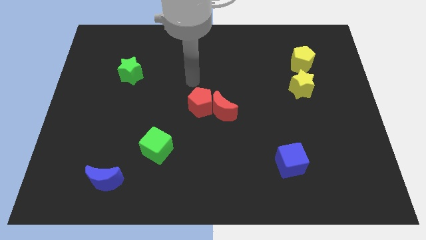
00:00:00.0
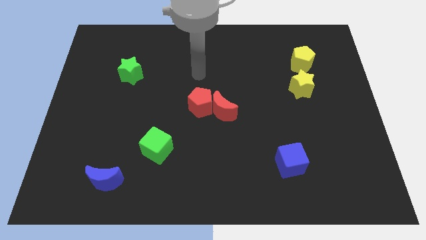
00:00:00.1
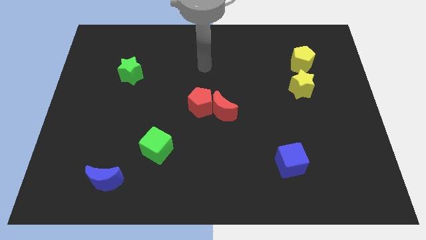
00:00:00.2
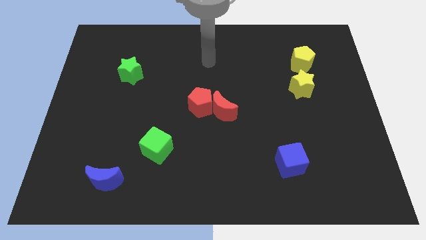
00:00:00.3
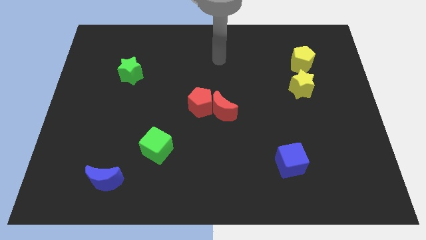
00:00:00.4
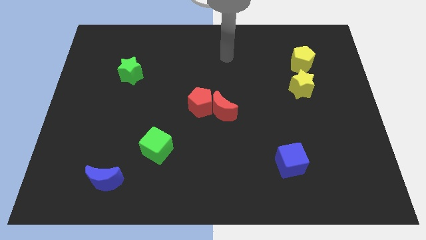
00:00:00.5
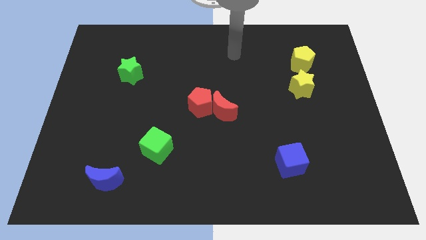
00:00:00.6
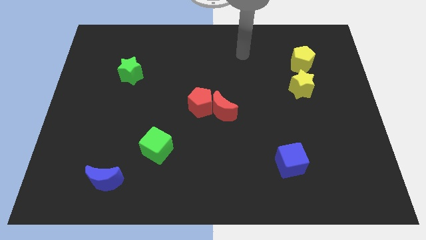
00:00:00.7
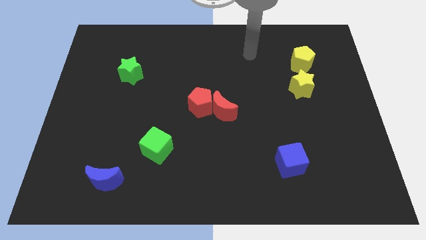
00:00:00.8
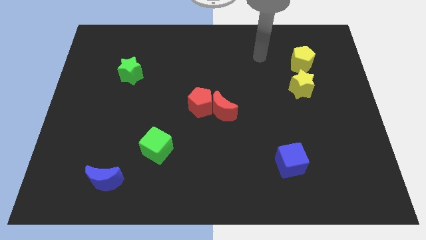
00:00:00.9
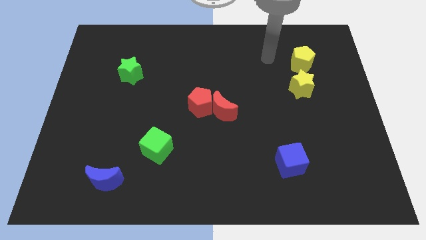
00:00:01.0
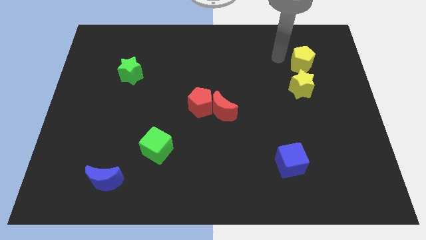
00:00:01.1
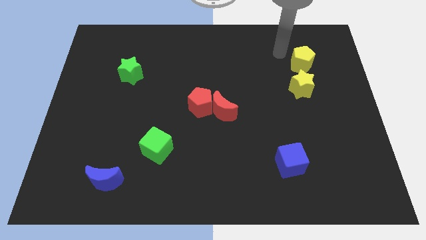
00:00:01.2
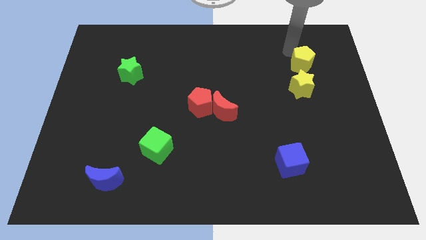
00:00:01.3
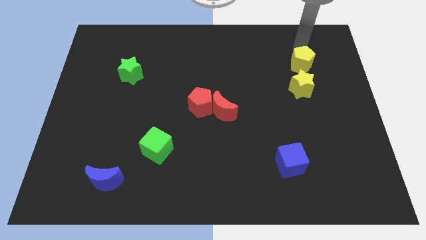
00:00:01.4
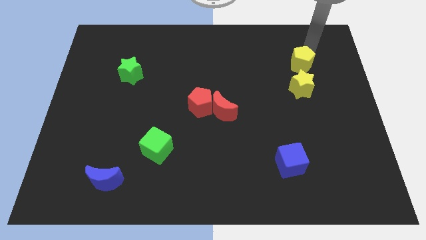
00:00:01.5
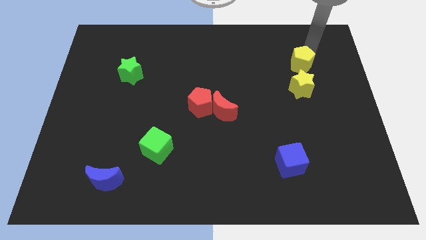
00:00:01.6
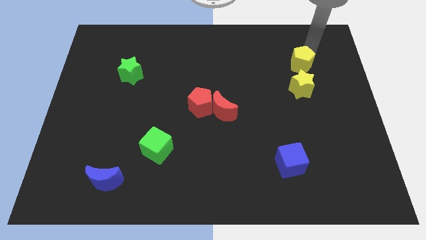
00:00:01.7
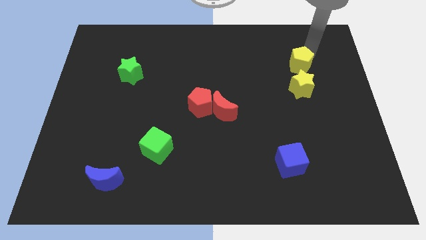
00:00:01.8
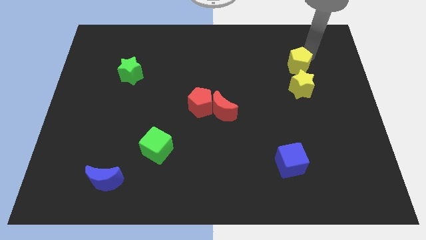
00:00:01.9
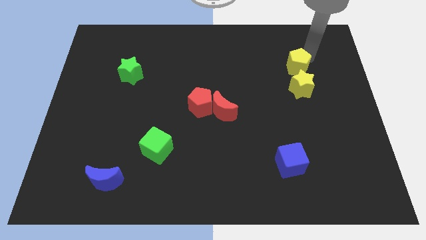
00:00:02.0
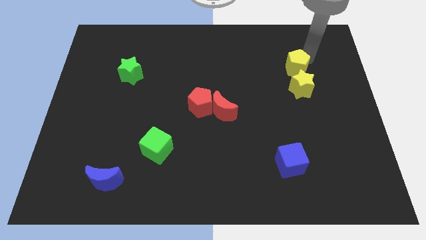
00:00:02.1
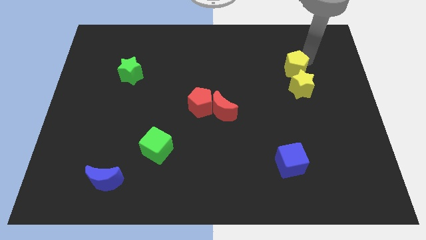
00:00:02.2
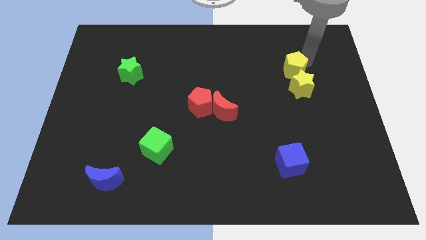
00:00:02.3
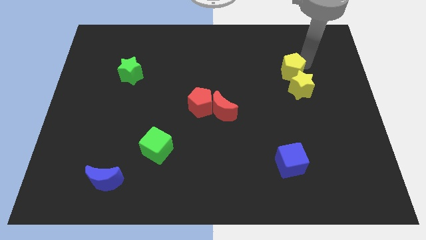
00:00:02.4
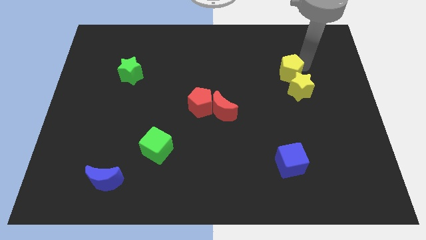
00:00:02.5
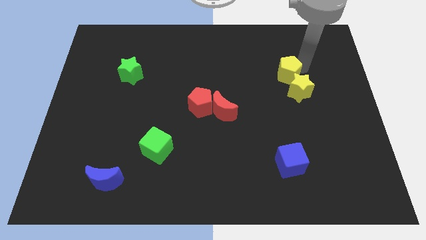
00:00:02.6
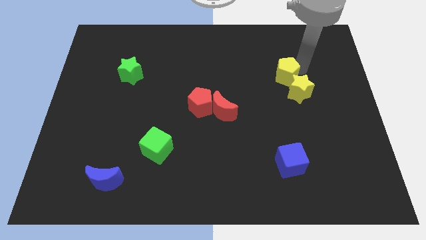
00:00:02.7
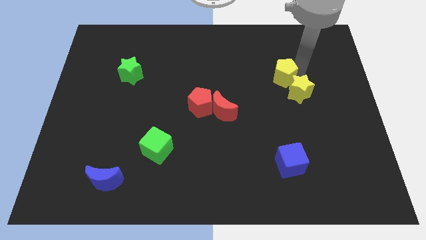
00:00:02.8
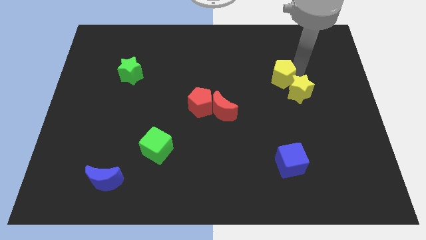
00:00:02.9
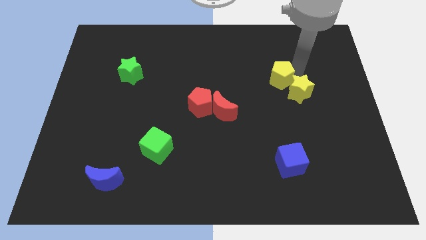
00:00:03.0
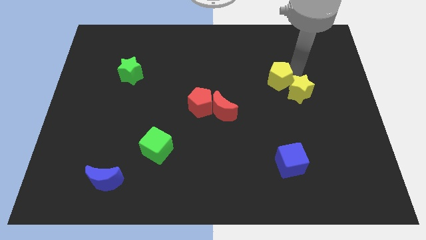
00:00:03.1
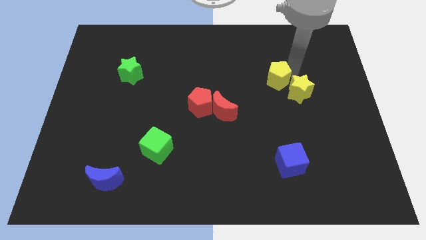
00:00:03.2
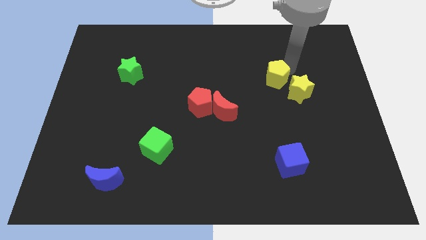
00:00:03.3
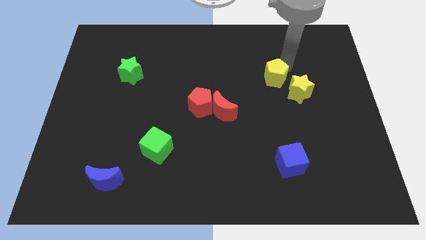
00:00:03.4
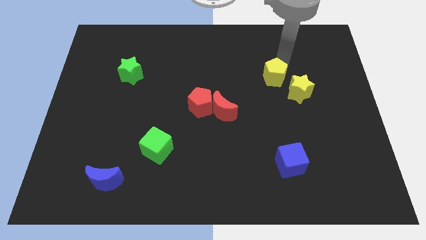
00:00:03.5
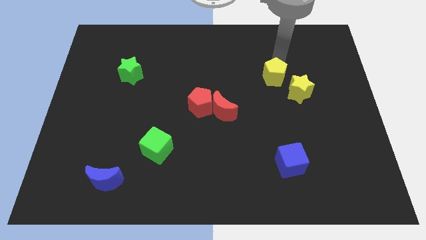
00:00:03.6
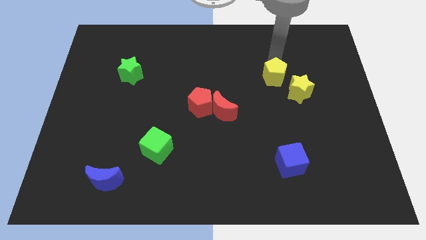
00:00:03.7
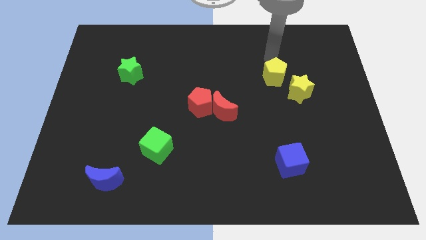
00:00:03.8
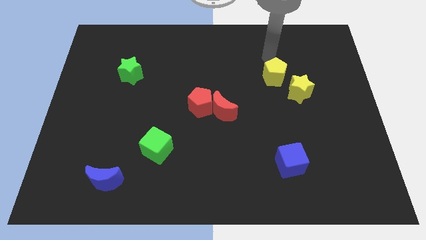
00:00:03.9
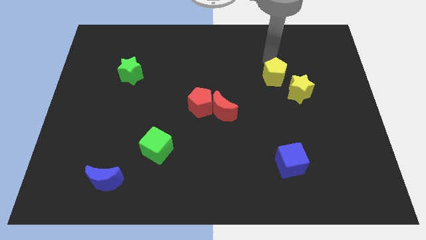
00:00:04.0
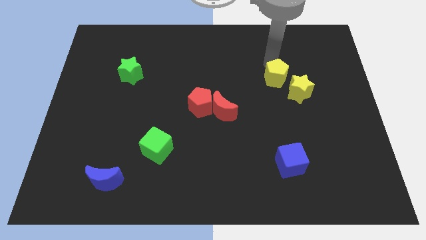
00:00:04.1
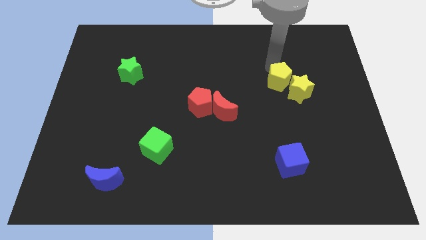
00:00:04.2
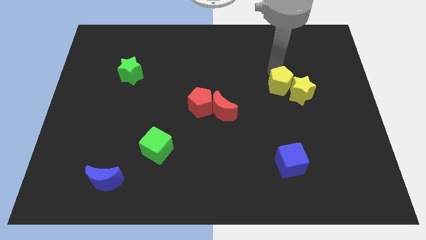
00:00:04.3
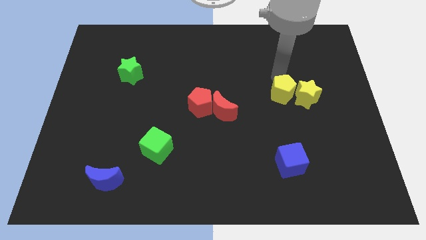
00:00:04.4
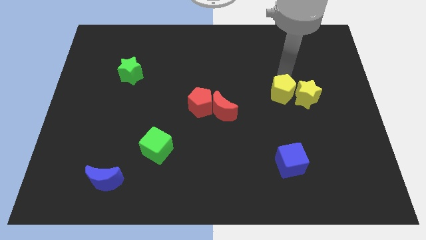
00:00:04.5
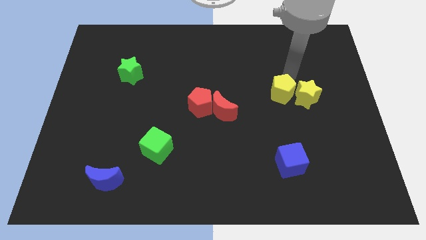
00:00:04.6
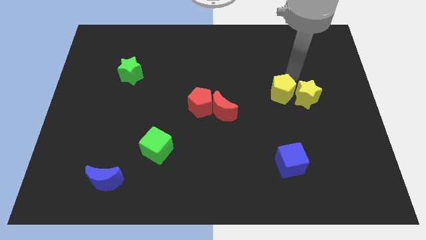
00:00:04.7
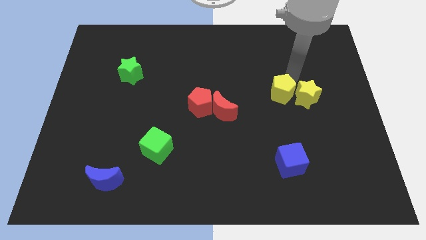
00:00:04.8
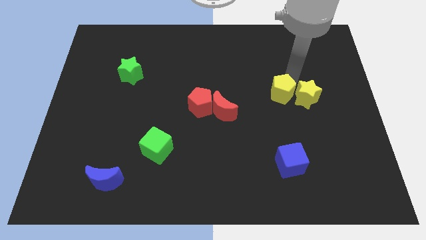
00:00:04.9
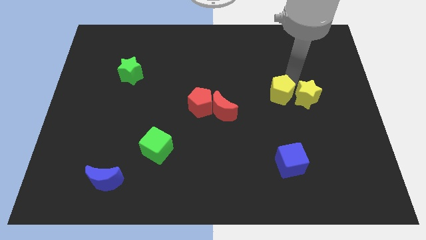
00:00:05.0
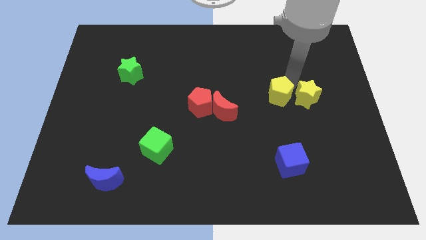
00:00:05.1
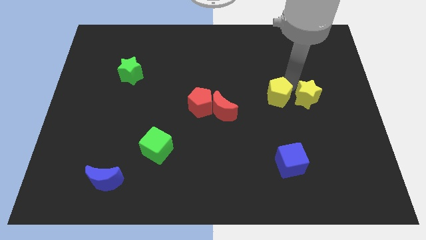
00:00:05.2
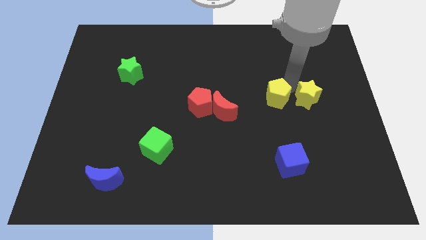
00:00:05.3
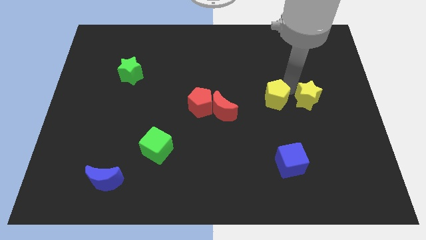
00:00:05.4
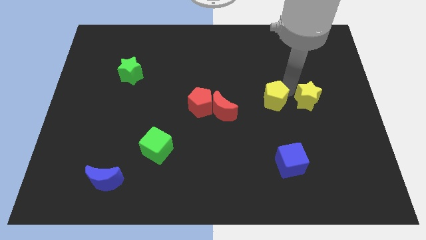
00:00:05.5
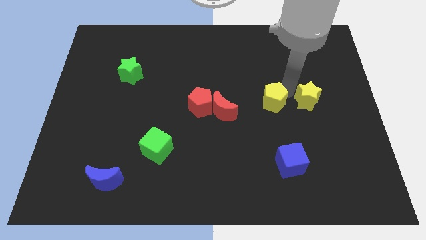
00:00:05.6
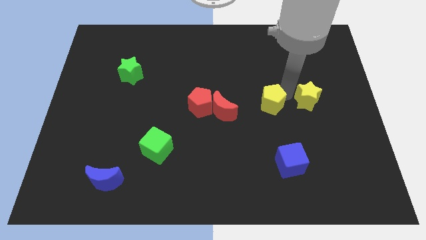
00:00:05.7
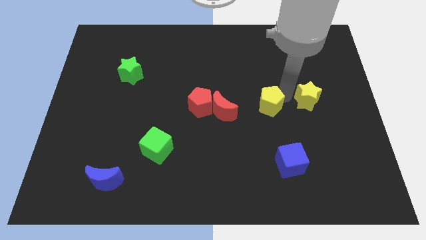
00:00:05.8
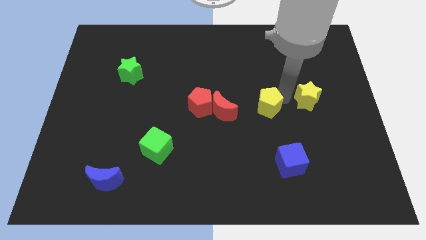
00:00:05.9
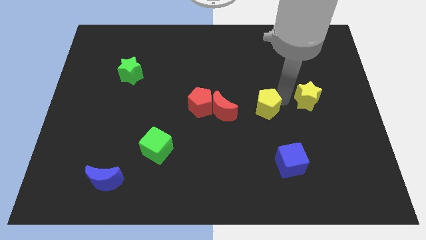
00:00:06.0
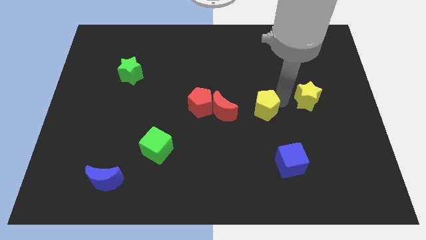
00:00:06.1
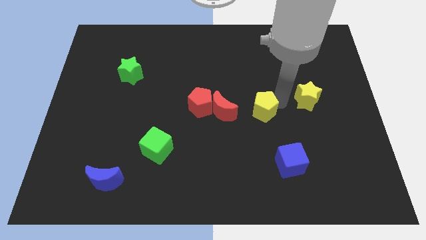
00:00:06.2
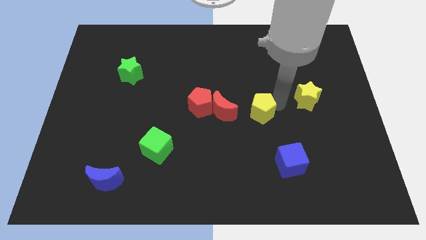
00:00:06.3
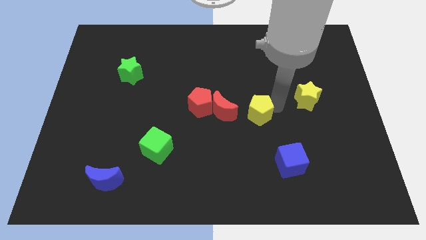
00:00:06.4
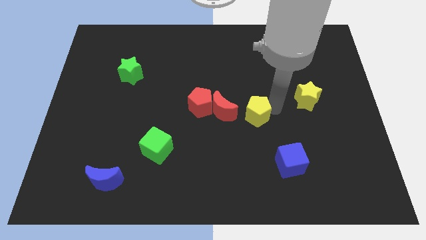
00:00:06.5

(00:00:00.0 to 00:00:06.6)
move the yellow pentagon to the bottom right side of the red moon

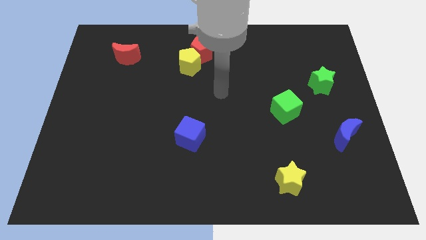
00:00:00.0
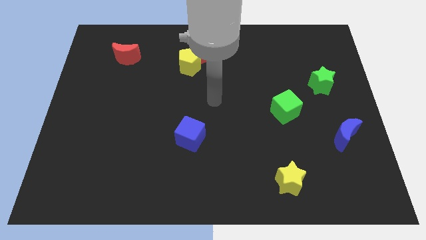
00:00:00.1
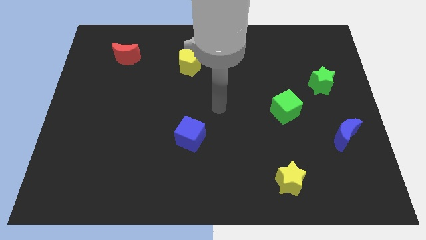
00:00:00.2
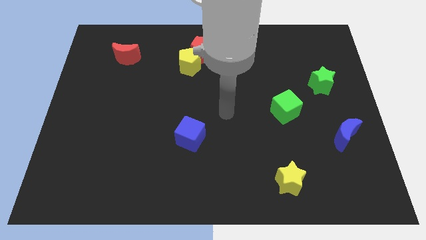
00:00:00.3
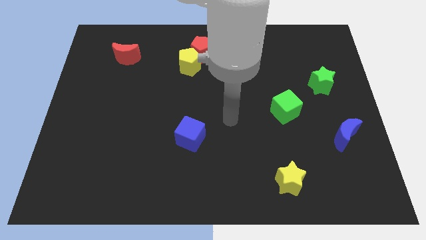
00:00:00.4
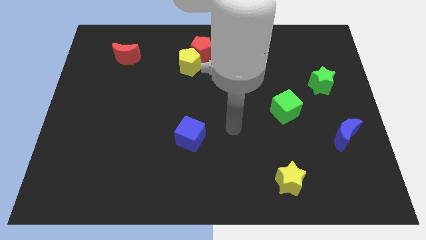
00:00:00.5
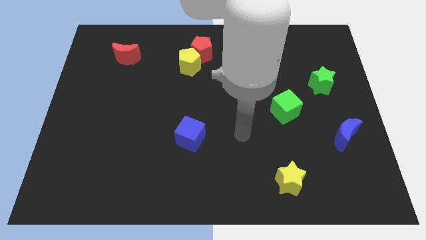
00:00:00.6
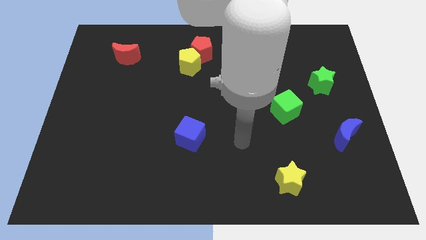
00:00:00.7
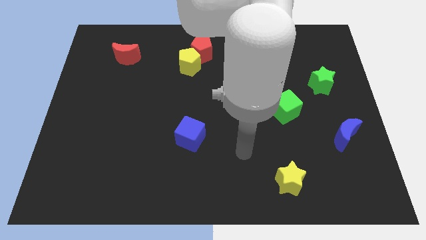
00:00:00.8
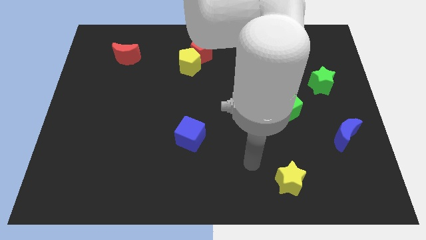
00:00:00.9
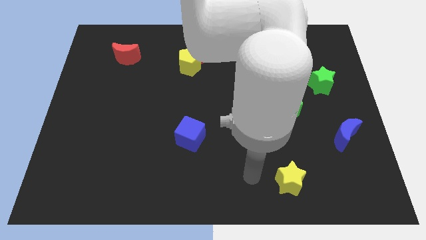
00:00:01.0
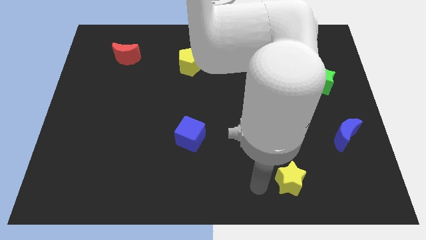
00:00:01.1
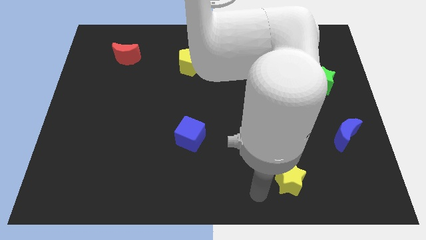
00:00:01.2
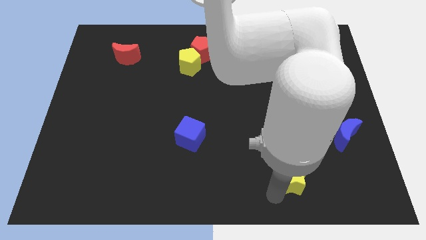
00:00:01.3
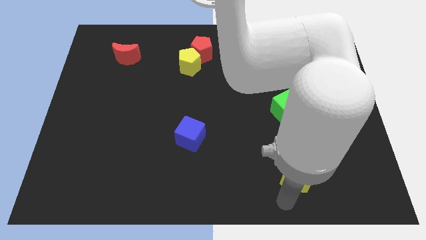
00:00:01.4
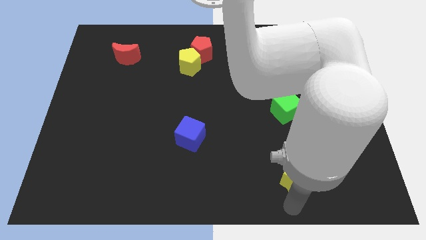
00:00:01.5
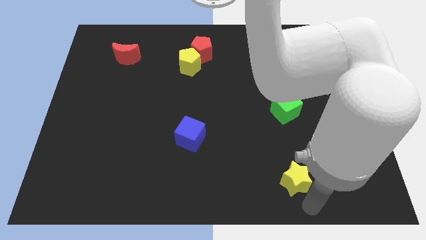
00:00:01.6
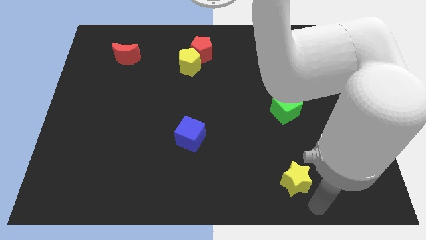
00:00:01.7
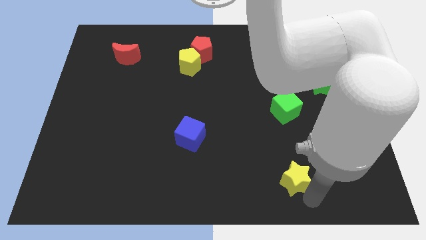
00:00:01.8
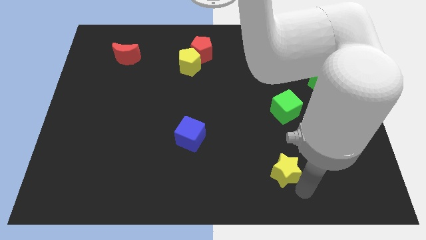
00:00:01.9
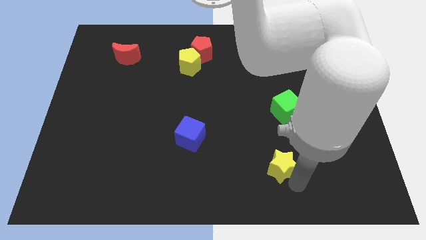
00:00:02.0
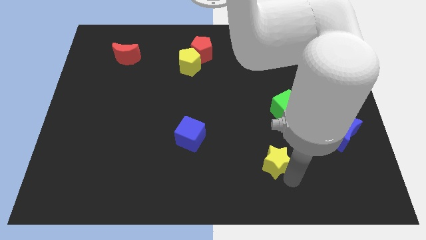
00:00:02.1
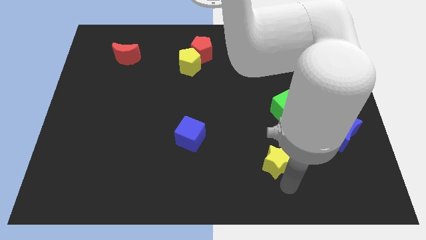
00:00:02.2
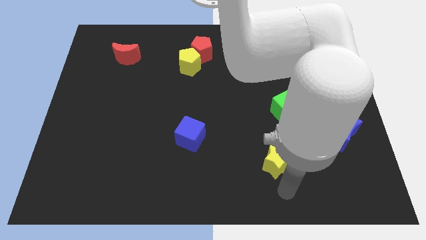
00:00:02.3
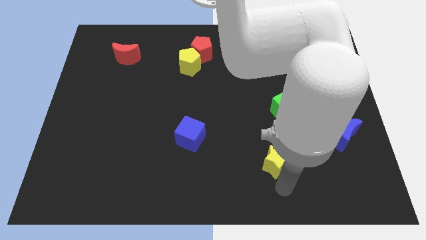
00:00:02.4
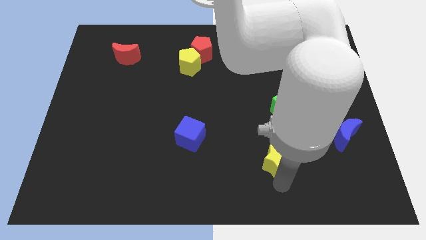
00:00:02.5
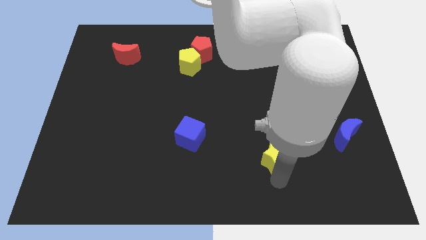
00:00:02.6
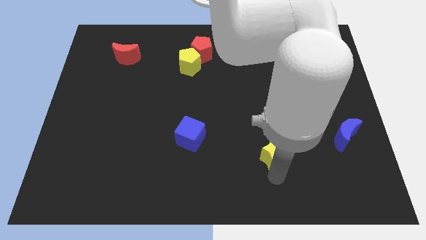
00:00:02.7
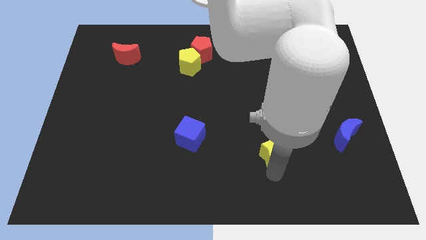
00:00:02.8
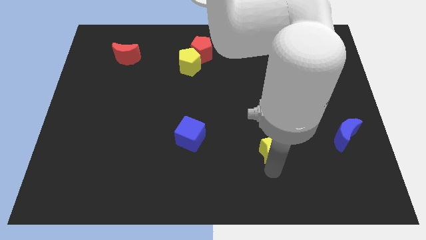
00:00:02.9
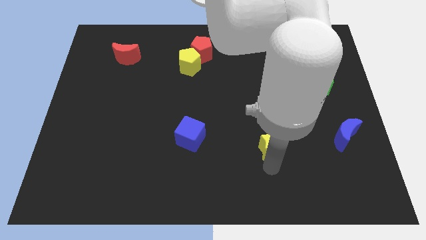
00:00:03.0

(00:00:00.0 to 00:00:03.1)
put the yellow star to the bottom left side of the green cube
